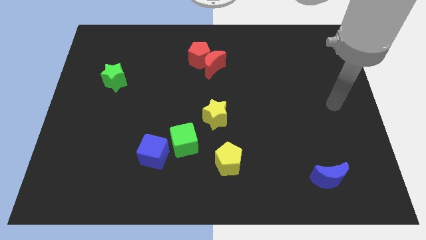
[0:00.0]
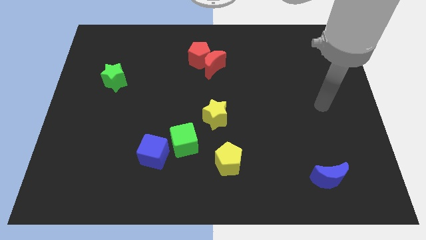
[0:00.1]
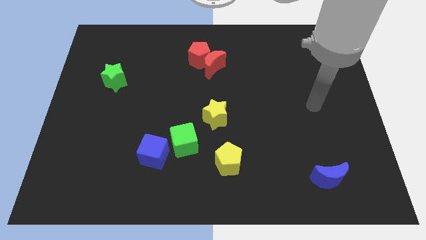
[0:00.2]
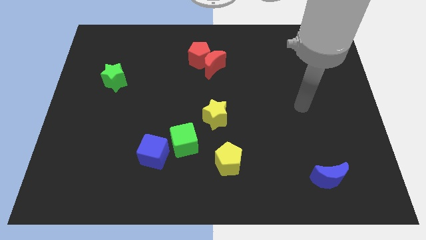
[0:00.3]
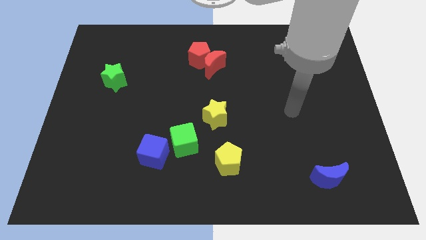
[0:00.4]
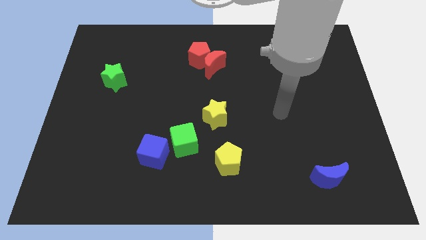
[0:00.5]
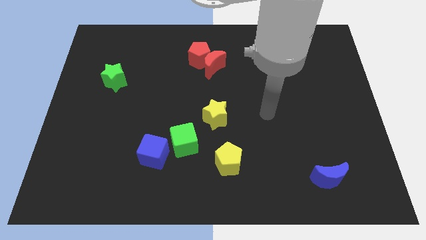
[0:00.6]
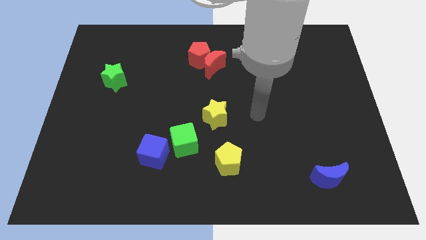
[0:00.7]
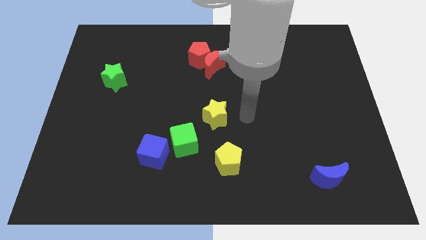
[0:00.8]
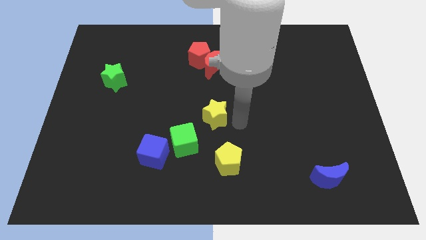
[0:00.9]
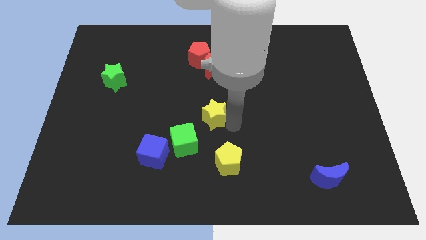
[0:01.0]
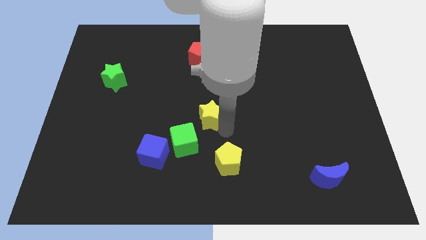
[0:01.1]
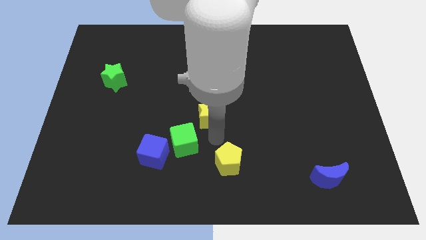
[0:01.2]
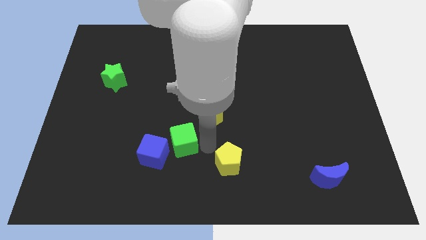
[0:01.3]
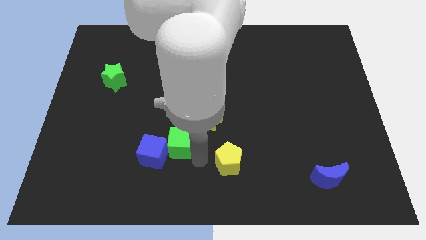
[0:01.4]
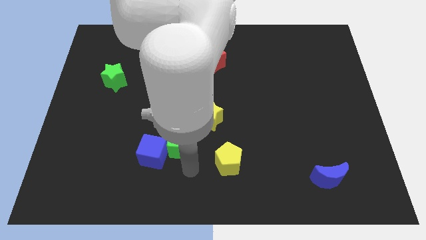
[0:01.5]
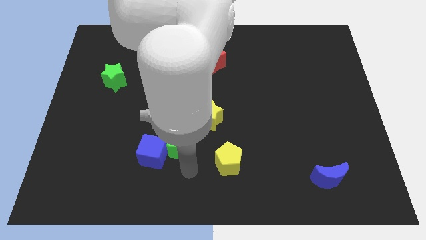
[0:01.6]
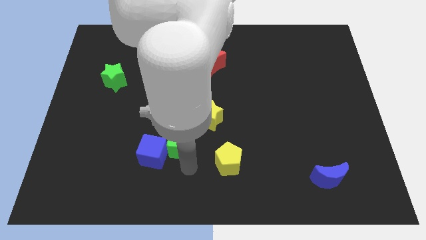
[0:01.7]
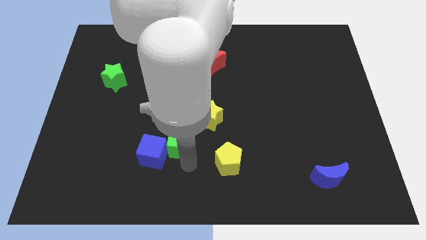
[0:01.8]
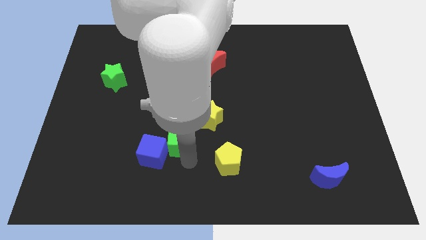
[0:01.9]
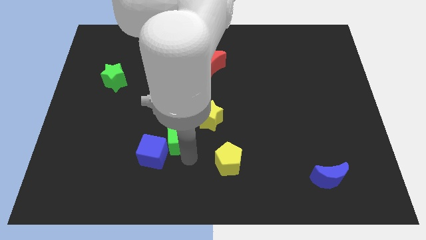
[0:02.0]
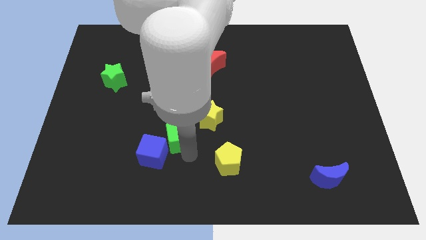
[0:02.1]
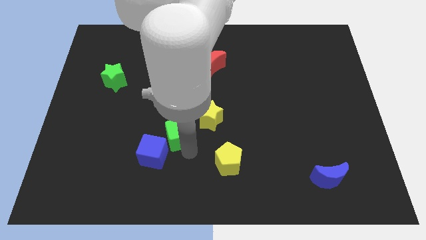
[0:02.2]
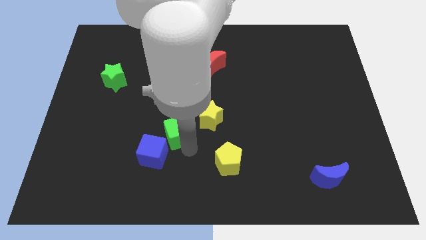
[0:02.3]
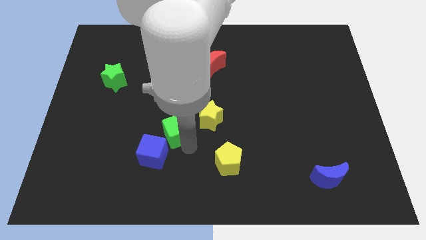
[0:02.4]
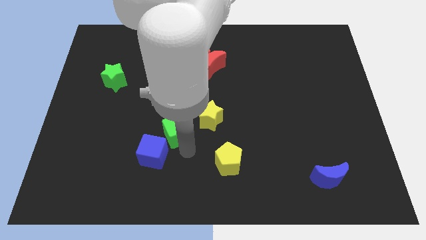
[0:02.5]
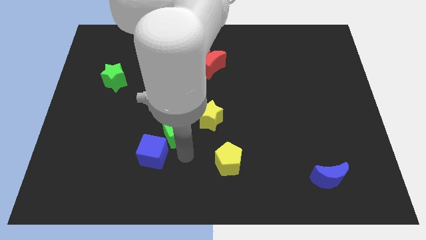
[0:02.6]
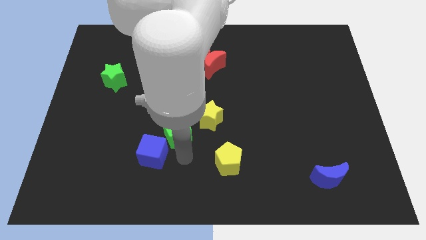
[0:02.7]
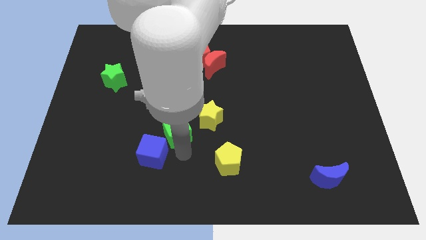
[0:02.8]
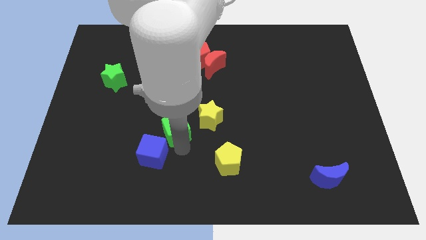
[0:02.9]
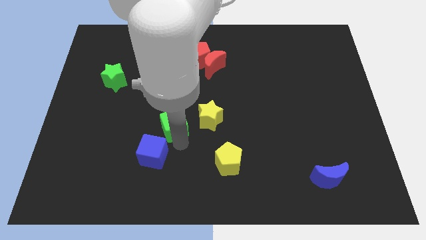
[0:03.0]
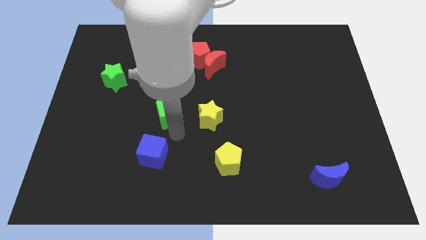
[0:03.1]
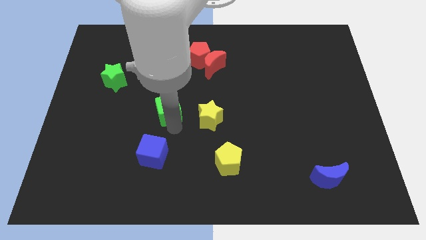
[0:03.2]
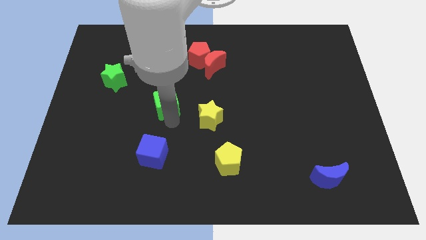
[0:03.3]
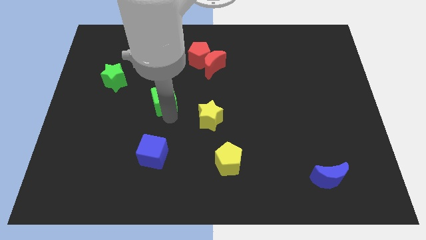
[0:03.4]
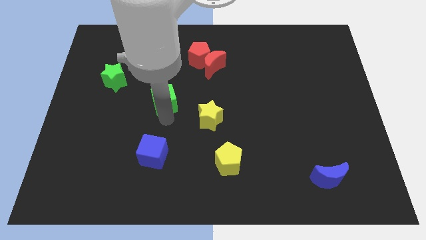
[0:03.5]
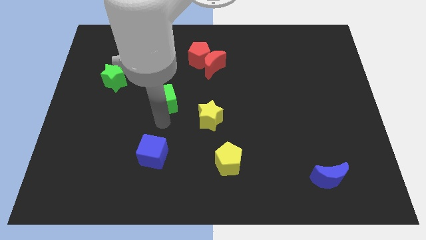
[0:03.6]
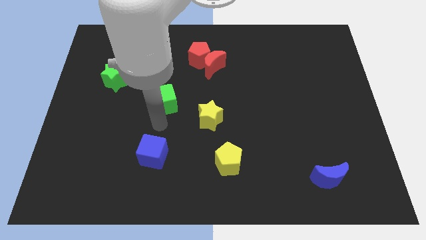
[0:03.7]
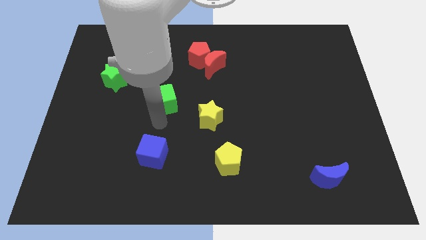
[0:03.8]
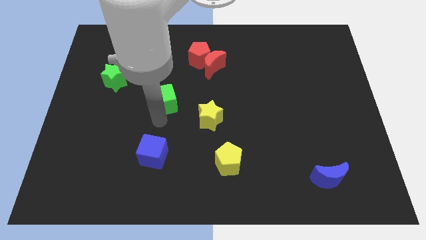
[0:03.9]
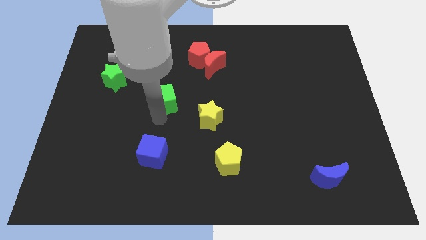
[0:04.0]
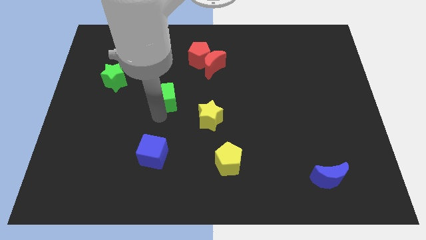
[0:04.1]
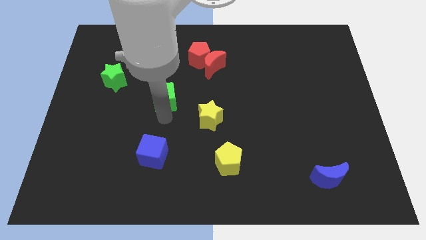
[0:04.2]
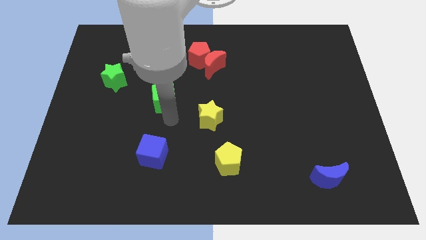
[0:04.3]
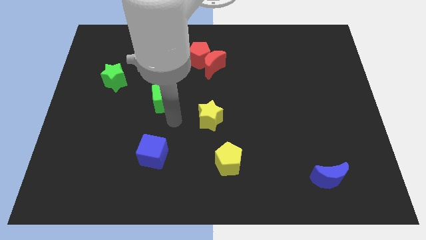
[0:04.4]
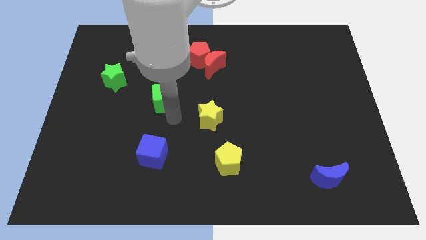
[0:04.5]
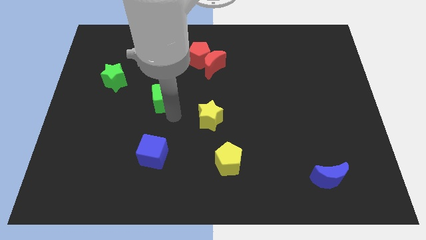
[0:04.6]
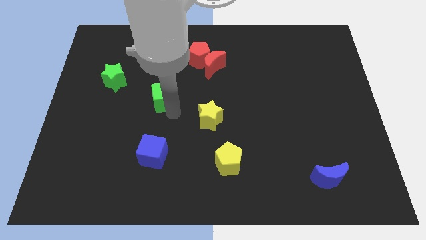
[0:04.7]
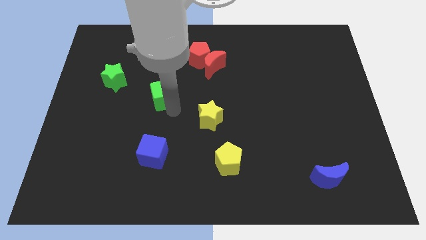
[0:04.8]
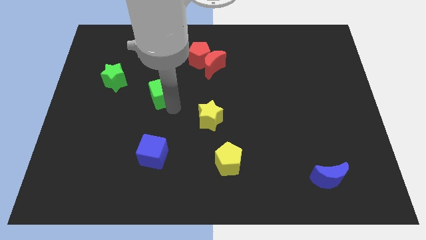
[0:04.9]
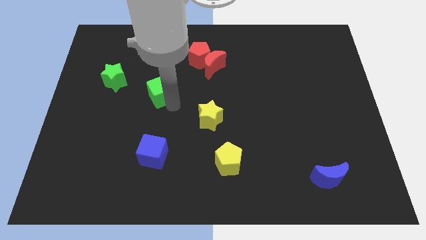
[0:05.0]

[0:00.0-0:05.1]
move the green cube to the right of the green star

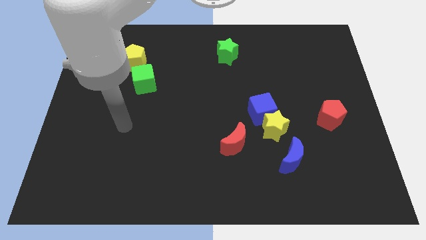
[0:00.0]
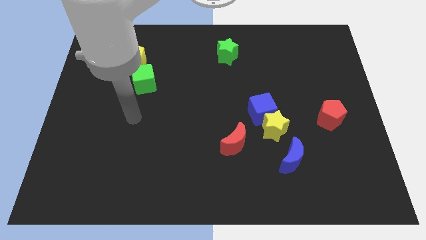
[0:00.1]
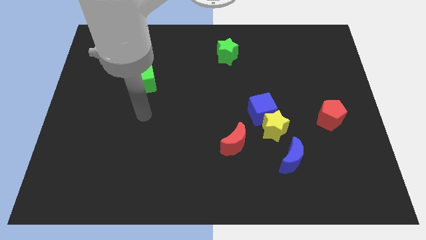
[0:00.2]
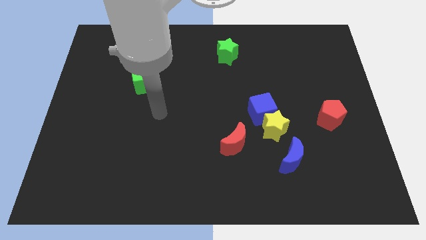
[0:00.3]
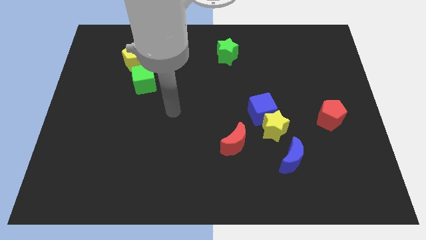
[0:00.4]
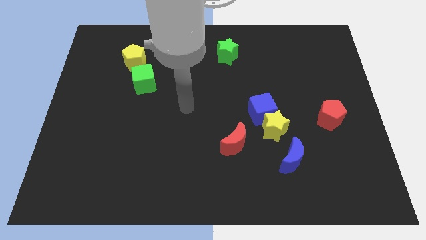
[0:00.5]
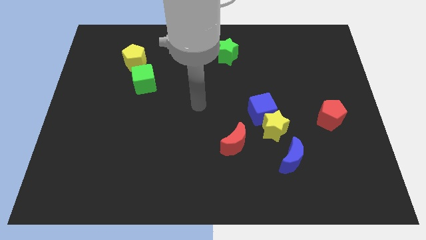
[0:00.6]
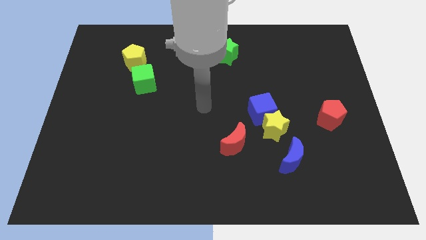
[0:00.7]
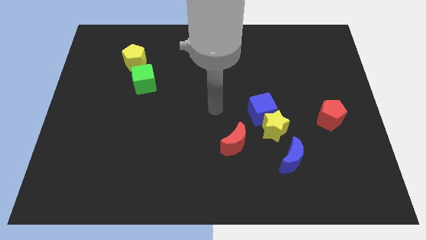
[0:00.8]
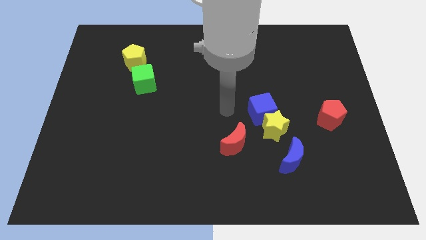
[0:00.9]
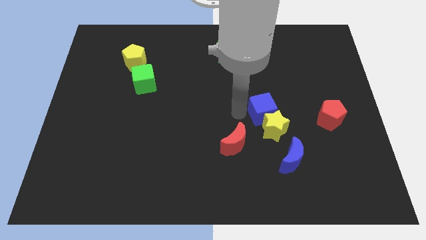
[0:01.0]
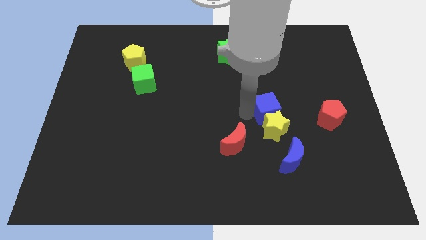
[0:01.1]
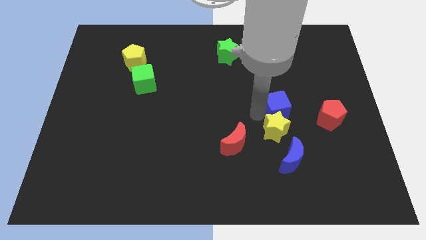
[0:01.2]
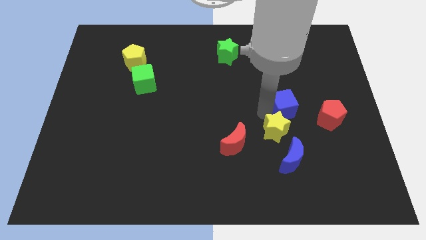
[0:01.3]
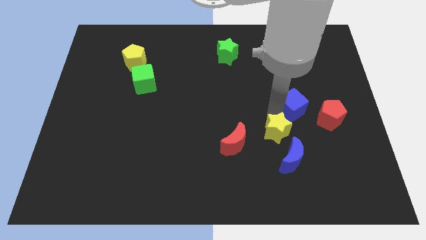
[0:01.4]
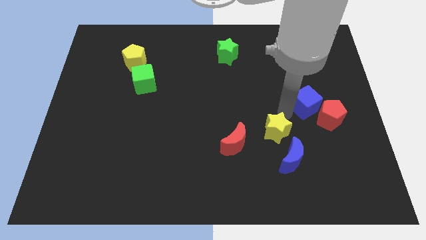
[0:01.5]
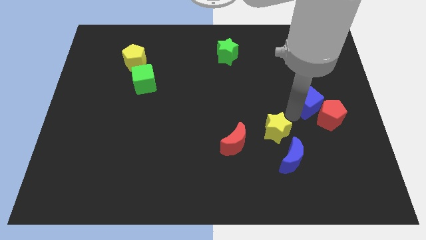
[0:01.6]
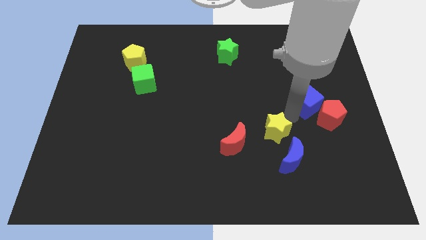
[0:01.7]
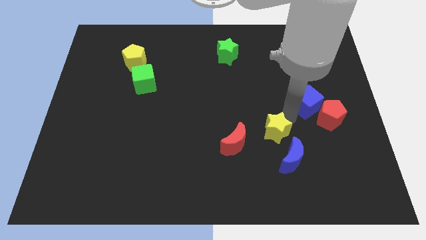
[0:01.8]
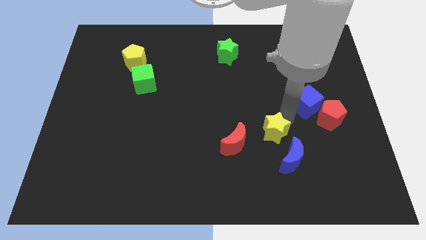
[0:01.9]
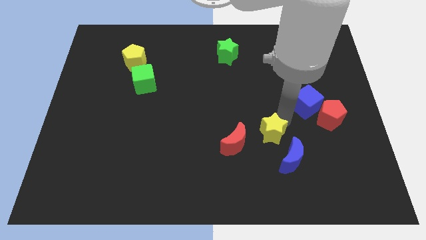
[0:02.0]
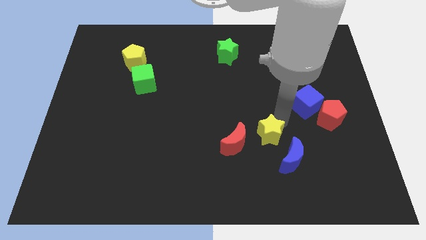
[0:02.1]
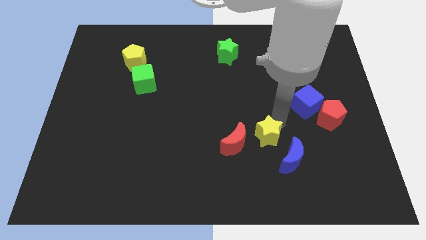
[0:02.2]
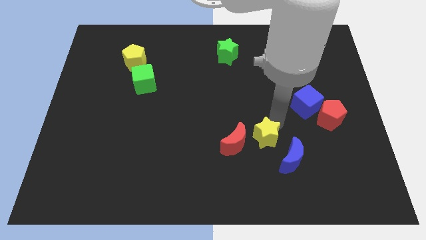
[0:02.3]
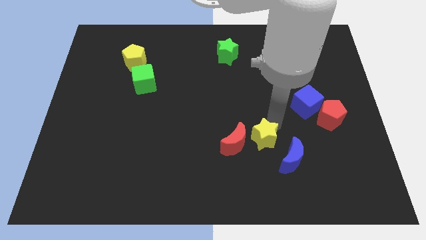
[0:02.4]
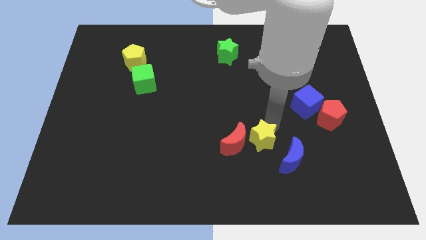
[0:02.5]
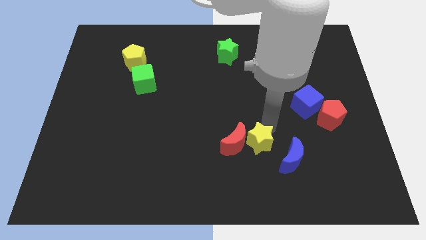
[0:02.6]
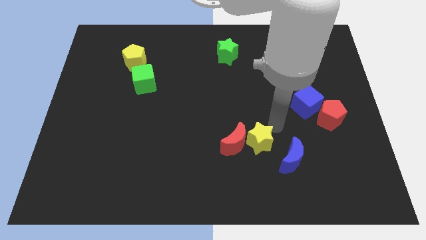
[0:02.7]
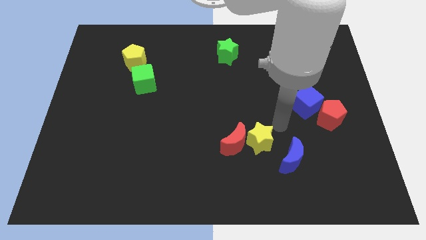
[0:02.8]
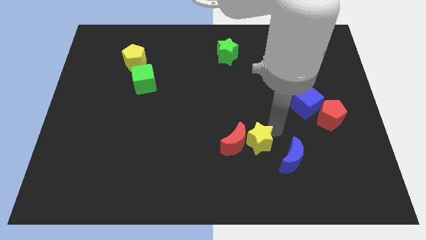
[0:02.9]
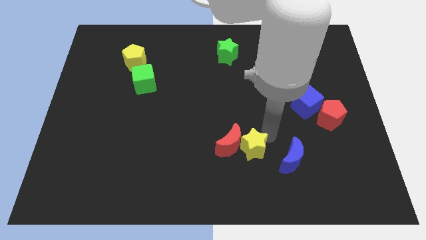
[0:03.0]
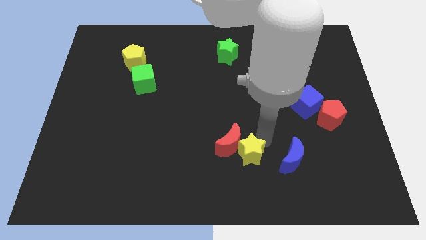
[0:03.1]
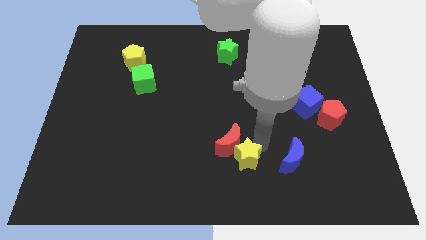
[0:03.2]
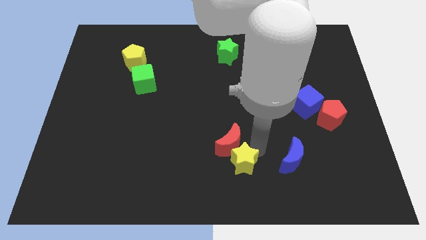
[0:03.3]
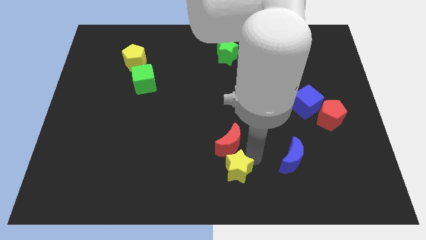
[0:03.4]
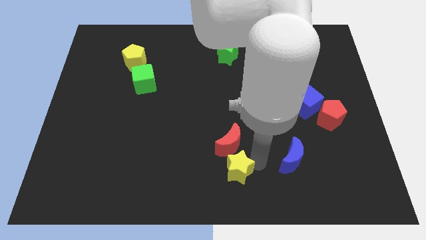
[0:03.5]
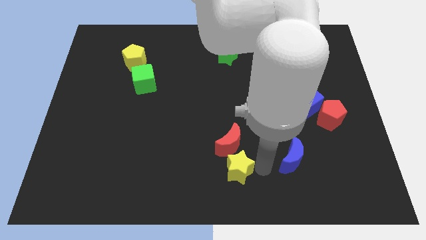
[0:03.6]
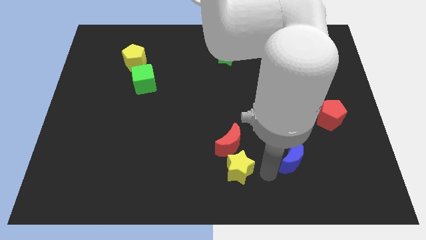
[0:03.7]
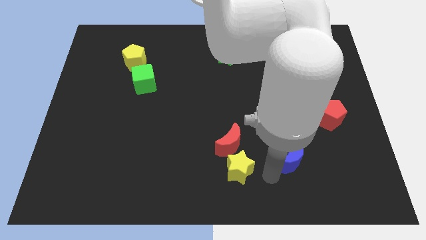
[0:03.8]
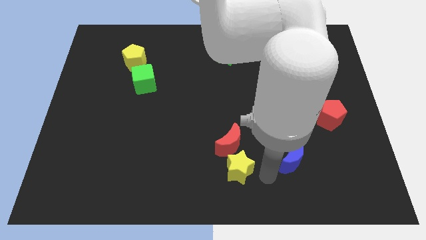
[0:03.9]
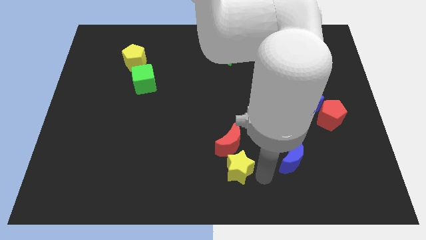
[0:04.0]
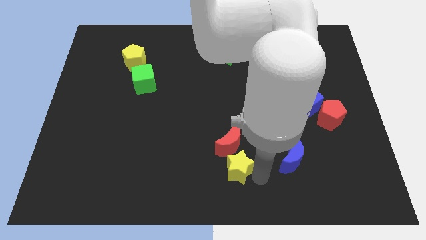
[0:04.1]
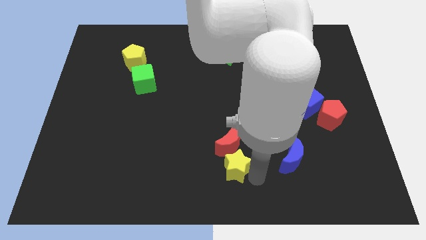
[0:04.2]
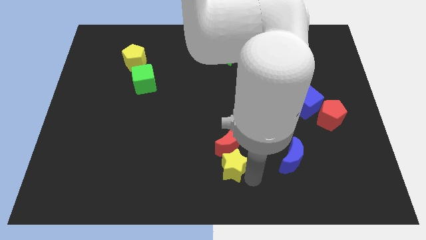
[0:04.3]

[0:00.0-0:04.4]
put the yellow star to the bottom left side of the red moon
